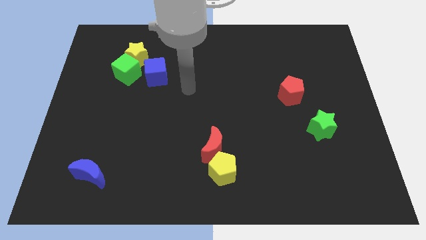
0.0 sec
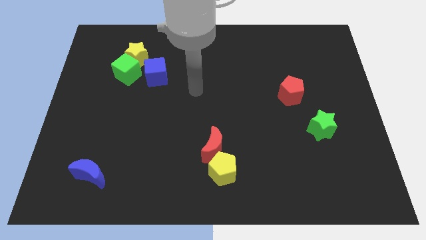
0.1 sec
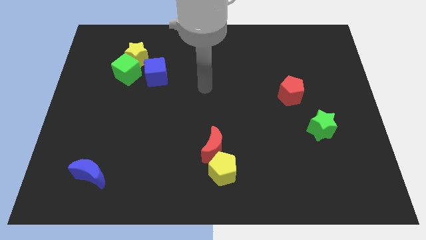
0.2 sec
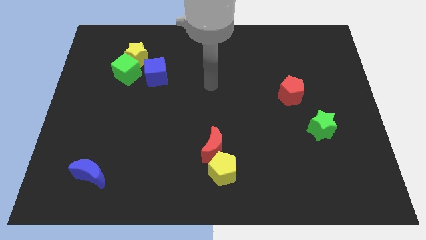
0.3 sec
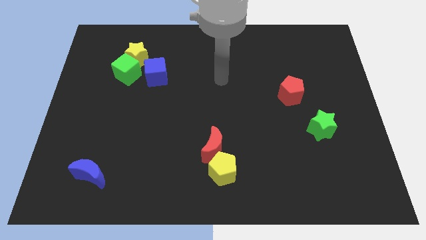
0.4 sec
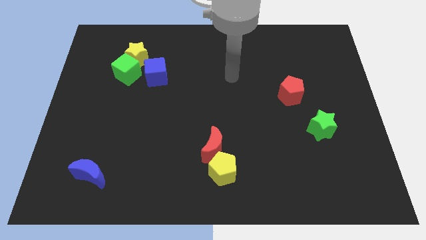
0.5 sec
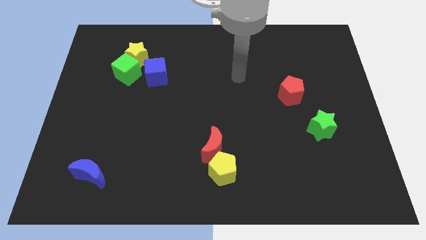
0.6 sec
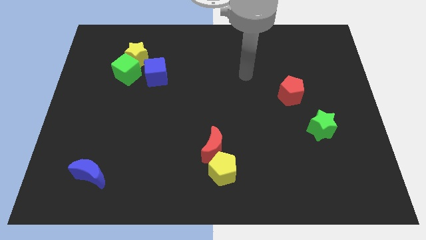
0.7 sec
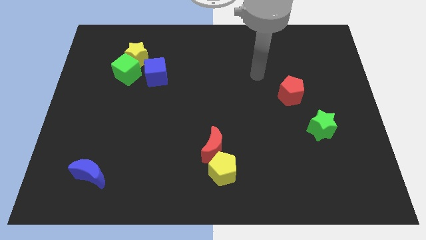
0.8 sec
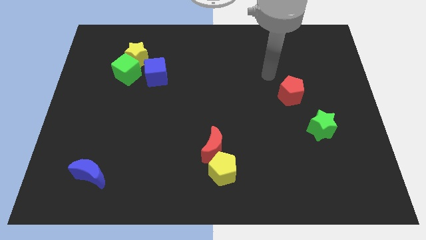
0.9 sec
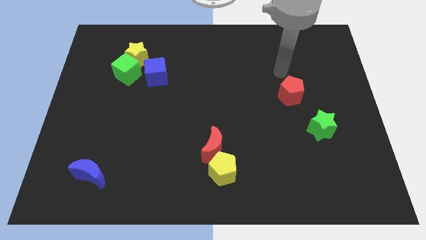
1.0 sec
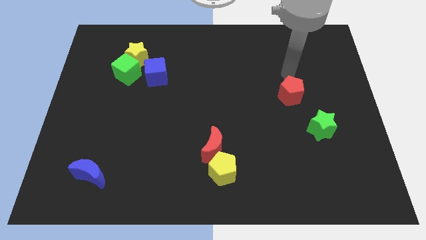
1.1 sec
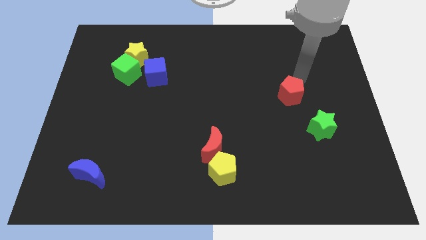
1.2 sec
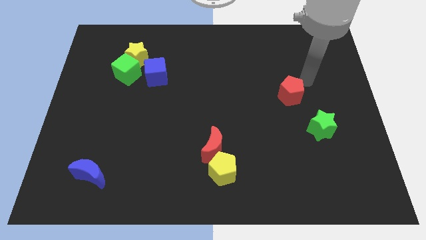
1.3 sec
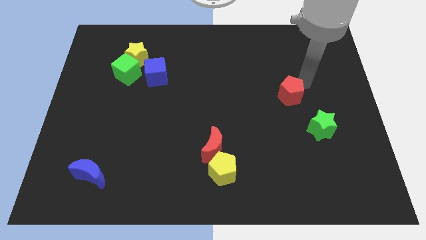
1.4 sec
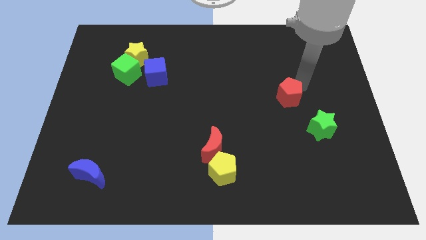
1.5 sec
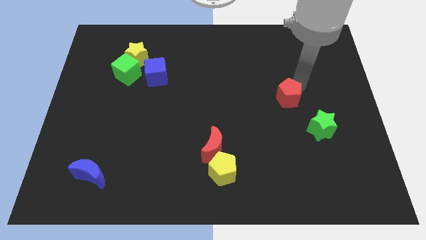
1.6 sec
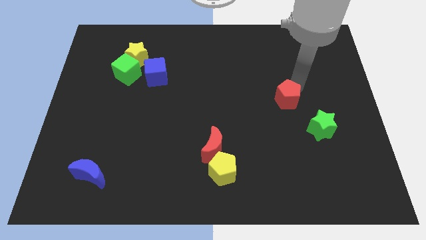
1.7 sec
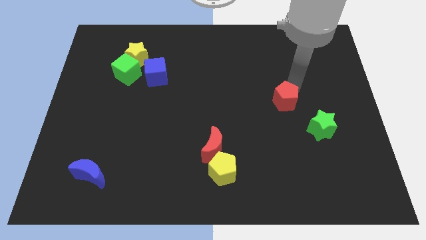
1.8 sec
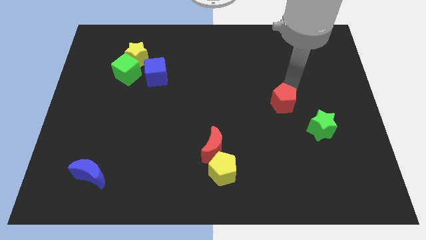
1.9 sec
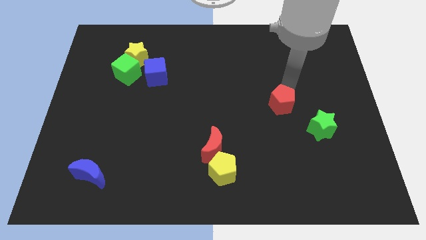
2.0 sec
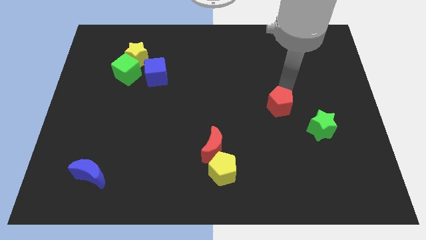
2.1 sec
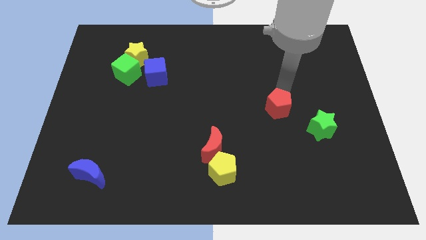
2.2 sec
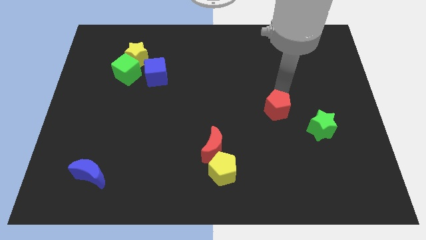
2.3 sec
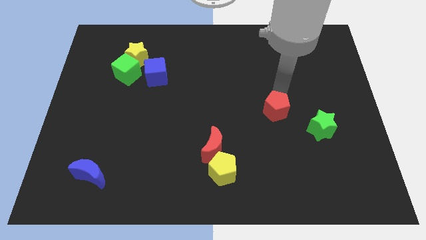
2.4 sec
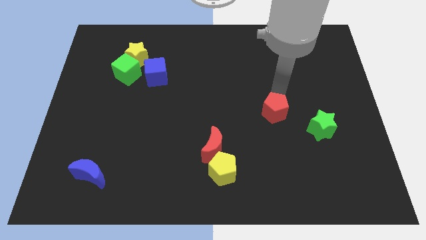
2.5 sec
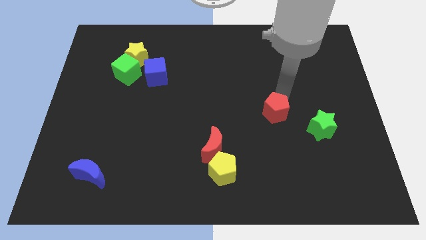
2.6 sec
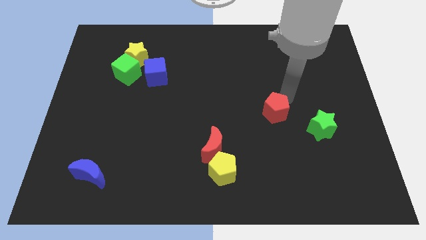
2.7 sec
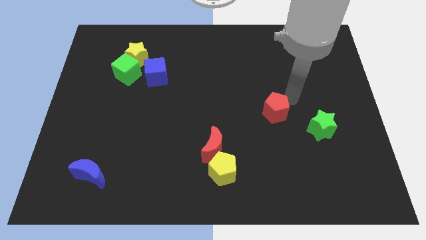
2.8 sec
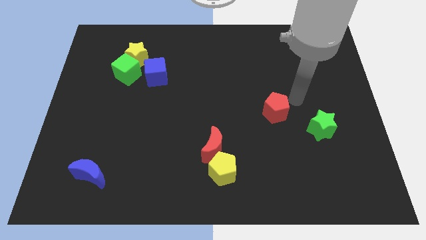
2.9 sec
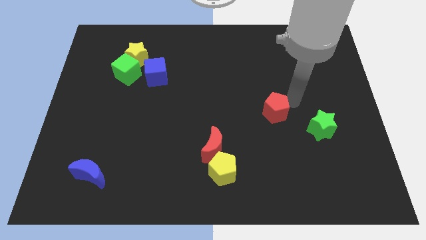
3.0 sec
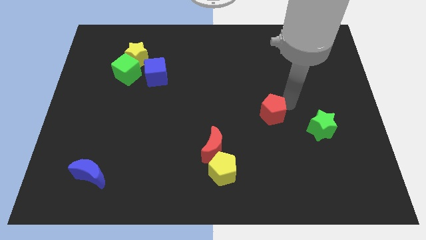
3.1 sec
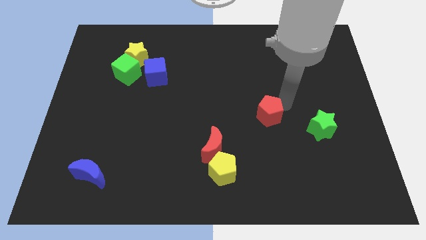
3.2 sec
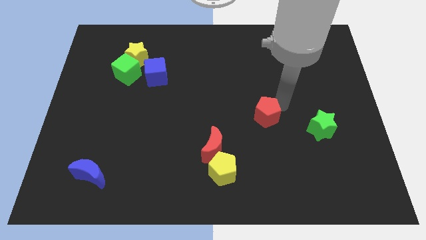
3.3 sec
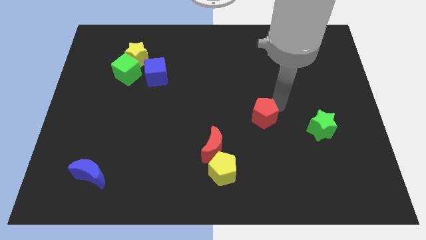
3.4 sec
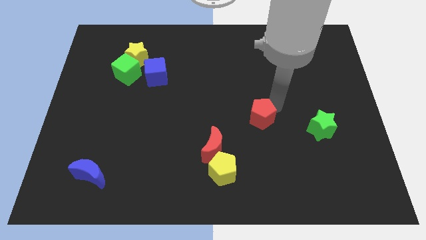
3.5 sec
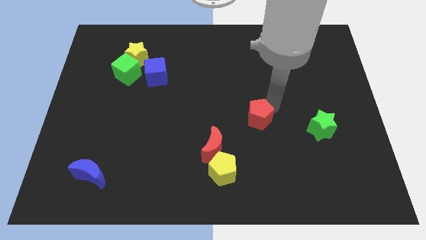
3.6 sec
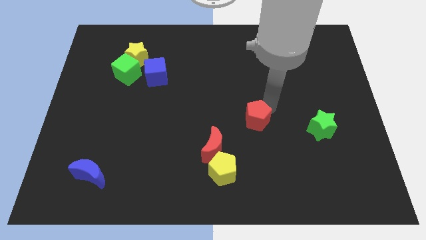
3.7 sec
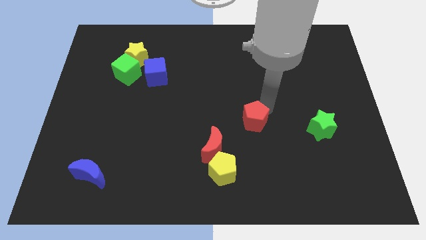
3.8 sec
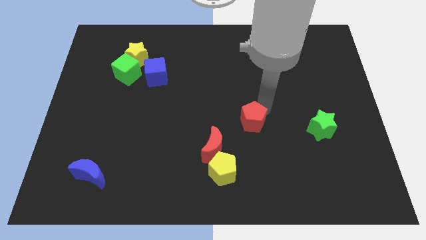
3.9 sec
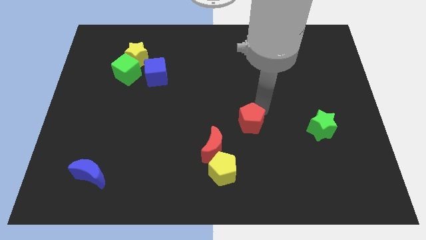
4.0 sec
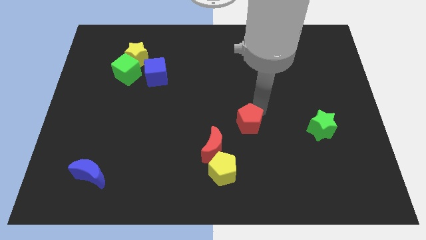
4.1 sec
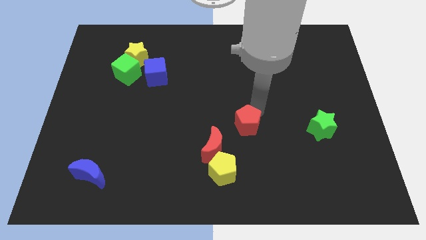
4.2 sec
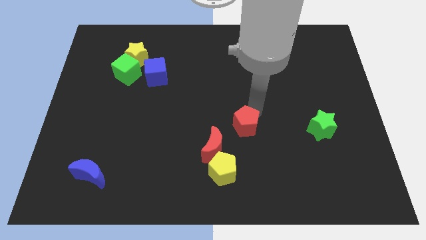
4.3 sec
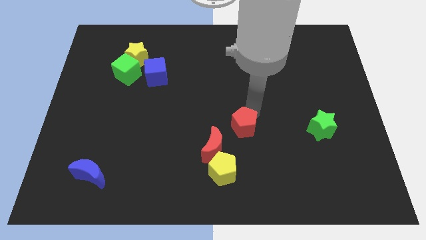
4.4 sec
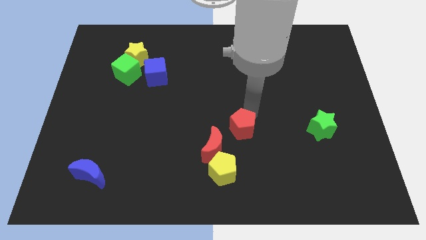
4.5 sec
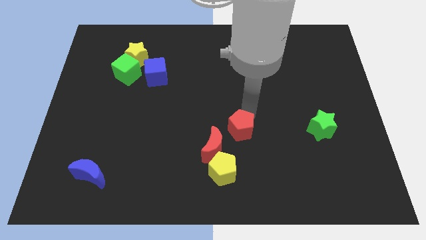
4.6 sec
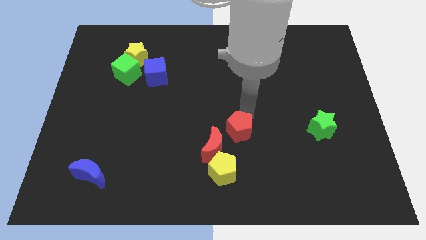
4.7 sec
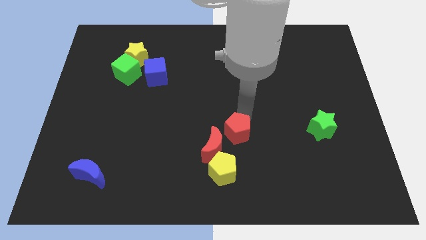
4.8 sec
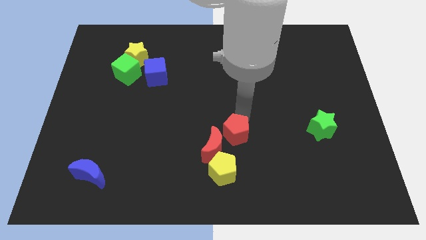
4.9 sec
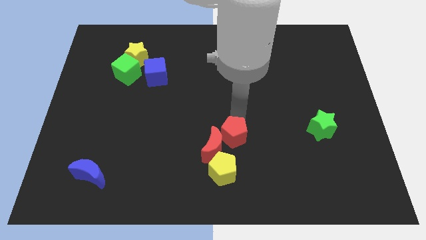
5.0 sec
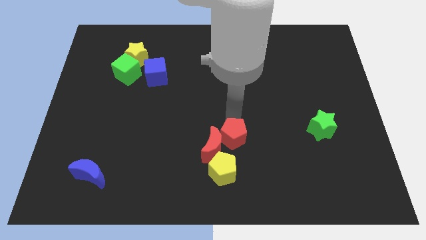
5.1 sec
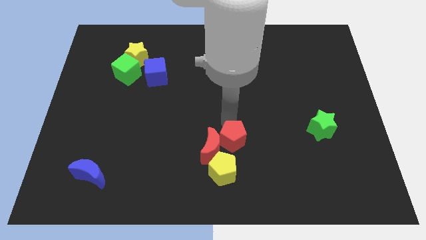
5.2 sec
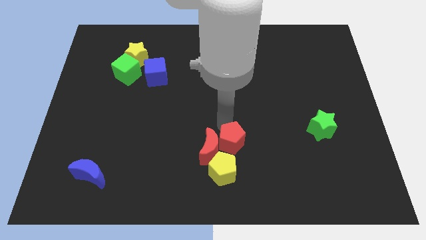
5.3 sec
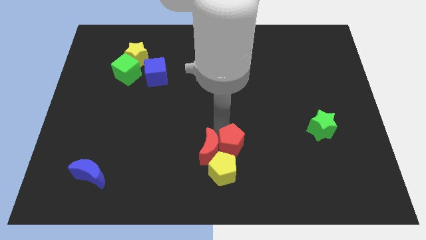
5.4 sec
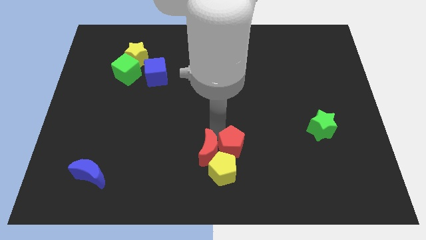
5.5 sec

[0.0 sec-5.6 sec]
push the red pentagon close to the yellow pentagon

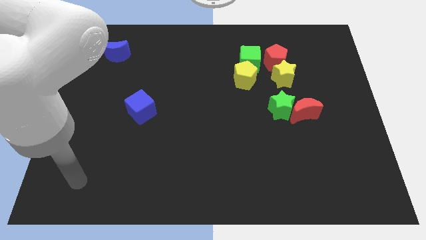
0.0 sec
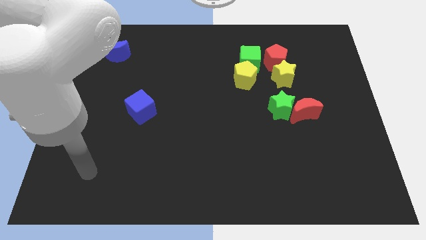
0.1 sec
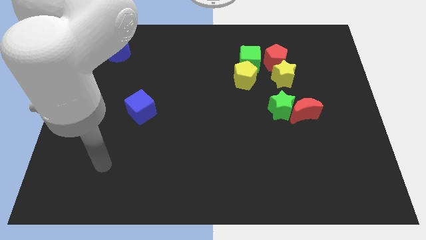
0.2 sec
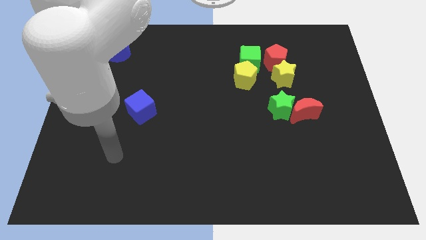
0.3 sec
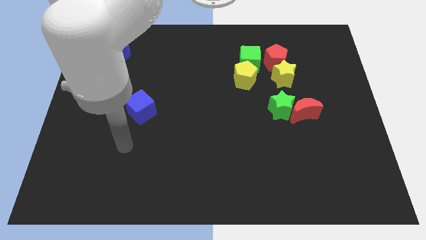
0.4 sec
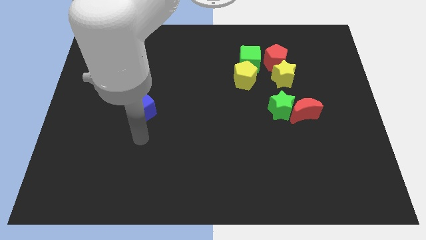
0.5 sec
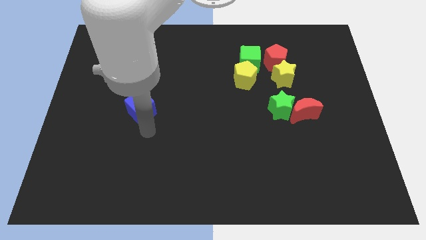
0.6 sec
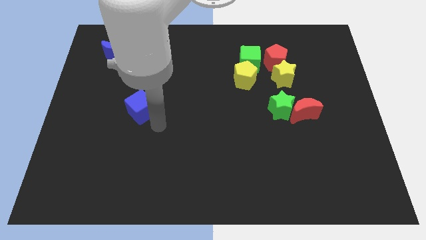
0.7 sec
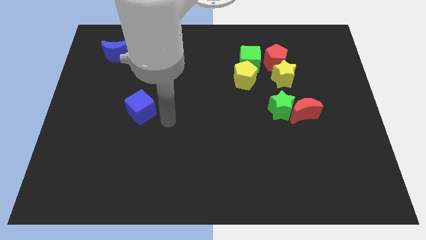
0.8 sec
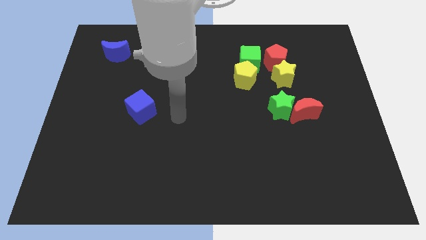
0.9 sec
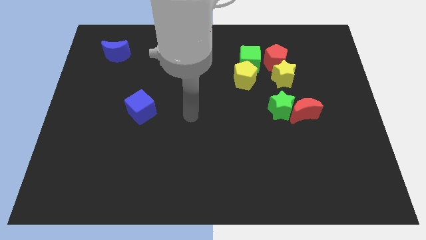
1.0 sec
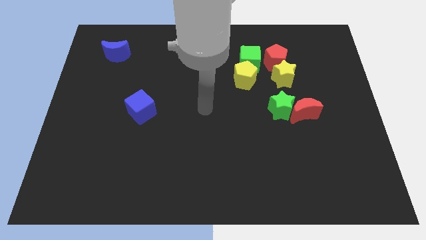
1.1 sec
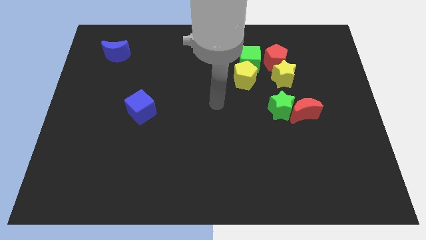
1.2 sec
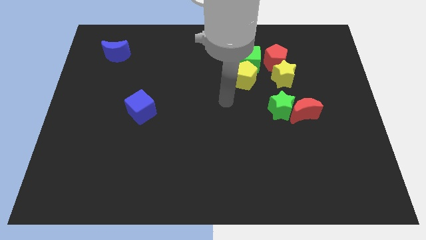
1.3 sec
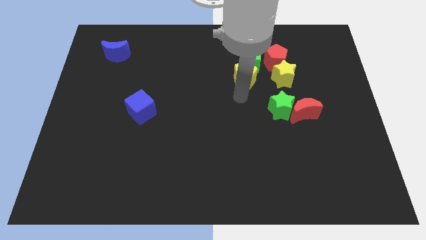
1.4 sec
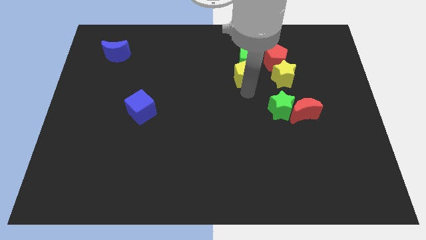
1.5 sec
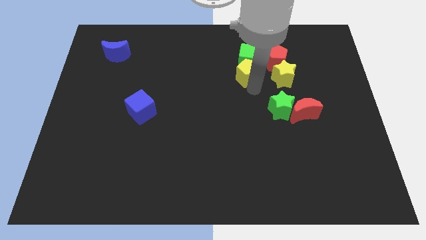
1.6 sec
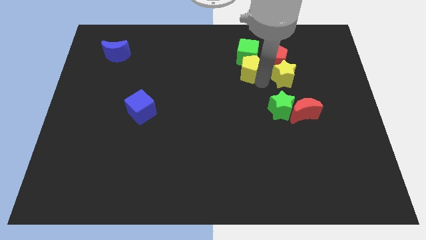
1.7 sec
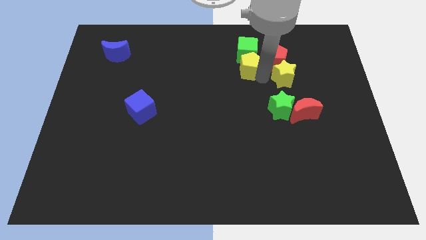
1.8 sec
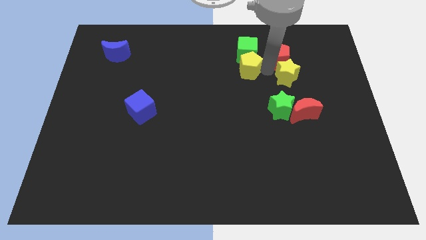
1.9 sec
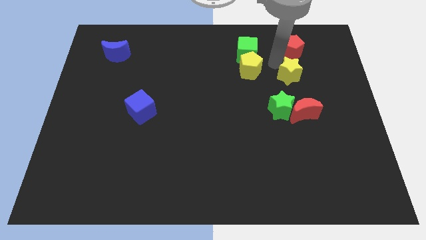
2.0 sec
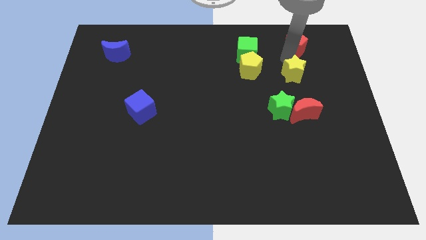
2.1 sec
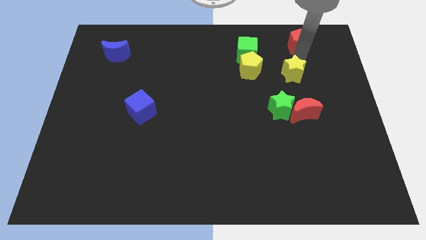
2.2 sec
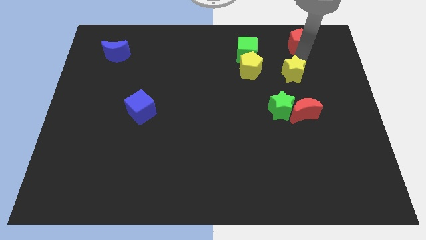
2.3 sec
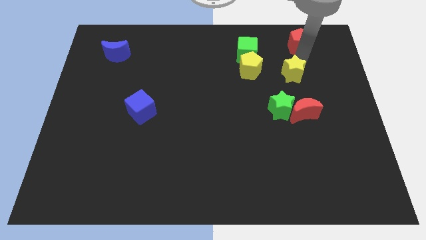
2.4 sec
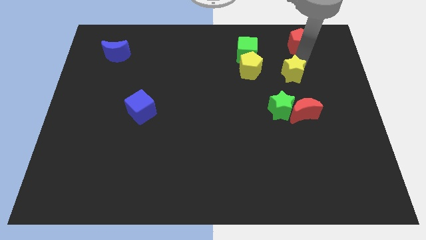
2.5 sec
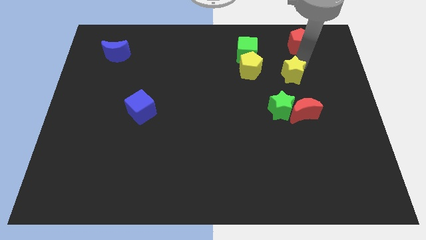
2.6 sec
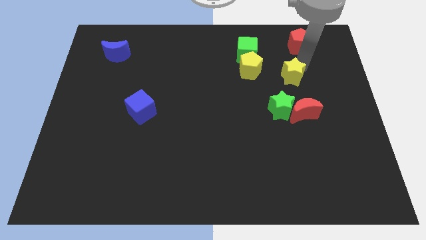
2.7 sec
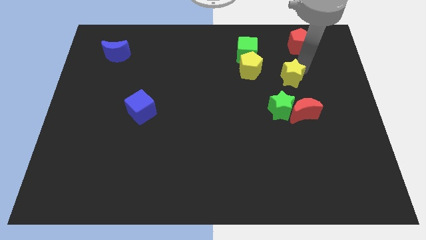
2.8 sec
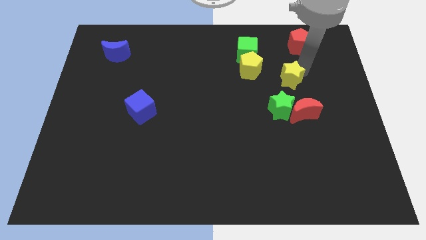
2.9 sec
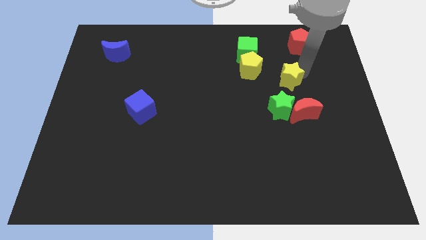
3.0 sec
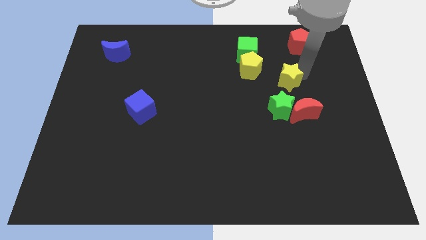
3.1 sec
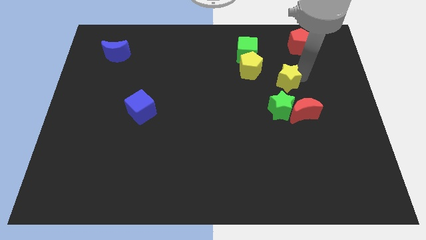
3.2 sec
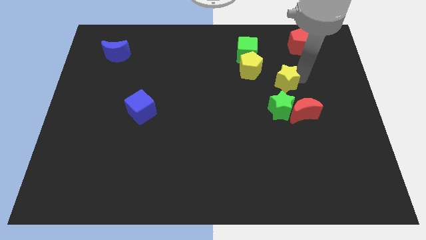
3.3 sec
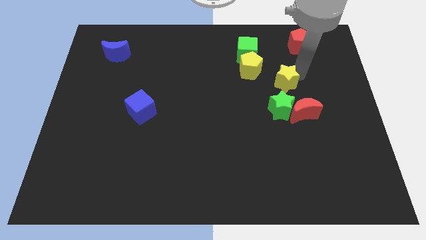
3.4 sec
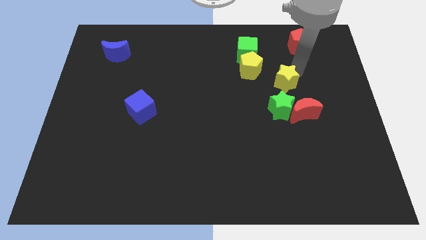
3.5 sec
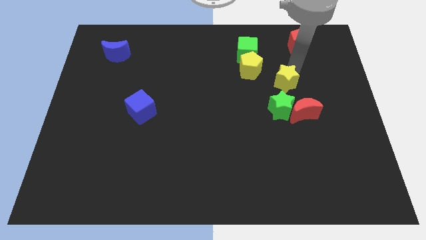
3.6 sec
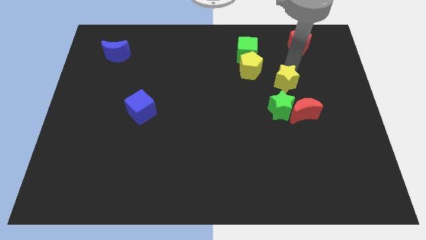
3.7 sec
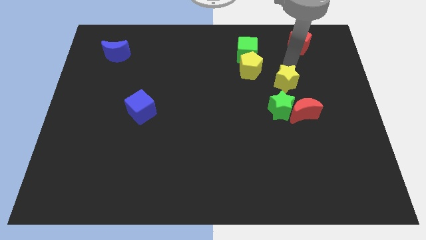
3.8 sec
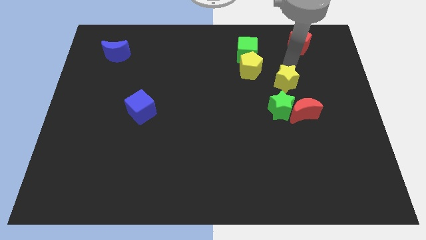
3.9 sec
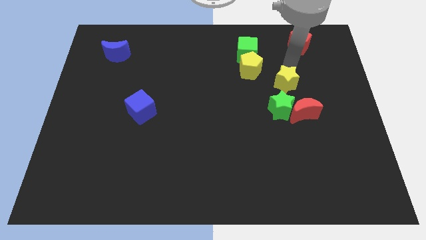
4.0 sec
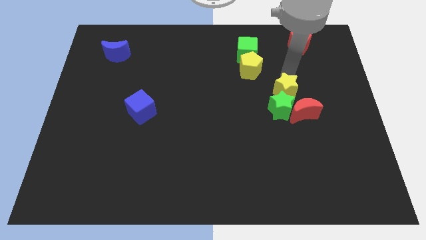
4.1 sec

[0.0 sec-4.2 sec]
move the yellow star to the green star
